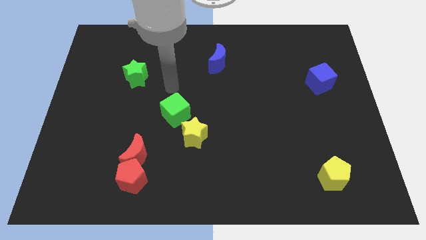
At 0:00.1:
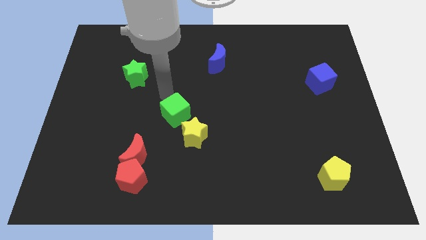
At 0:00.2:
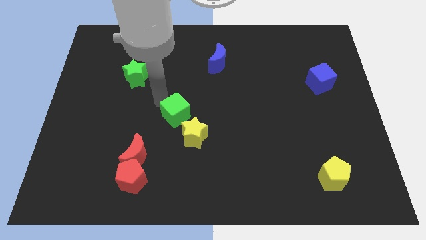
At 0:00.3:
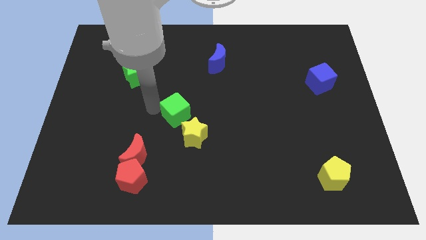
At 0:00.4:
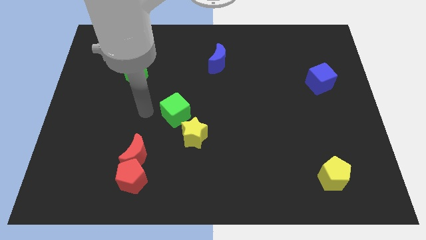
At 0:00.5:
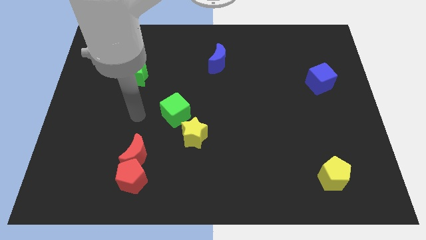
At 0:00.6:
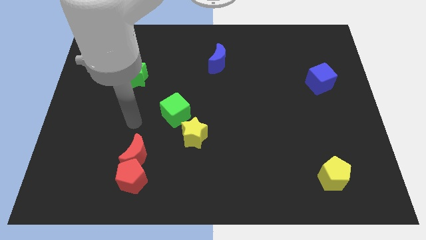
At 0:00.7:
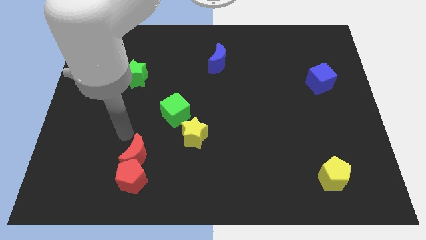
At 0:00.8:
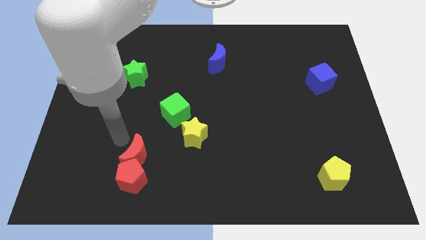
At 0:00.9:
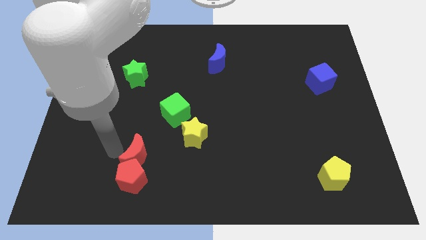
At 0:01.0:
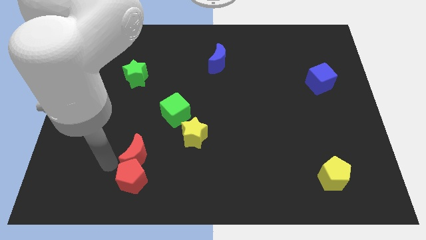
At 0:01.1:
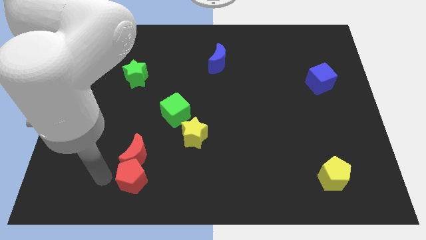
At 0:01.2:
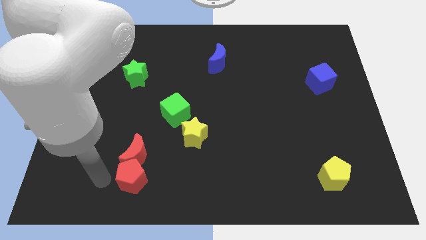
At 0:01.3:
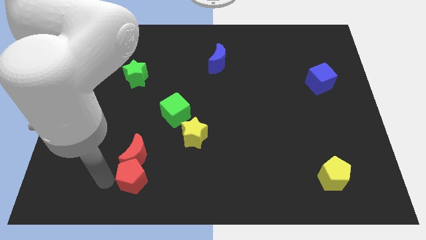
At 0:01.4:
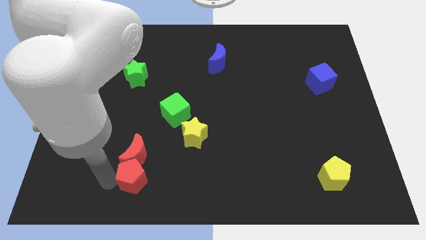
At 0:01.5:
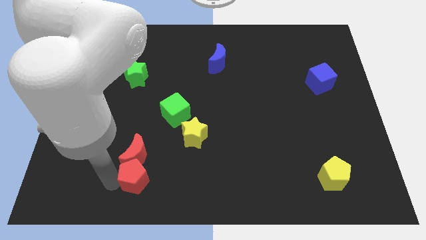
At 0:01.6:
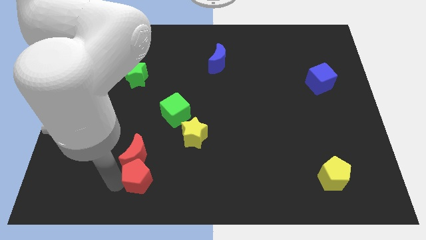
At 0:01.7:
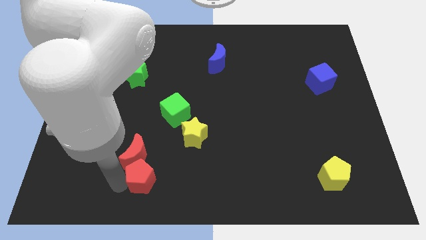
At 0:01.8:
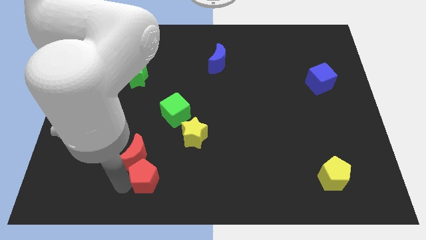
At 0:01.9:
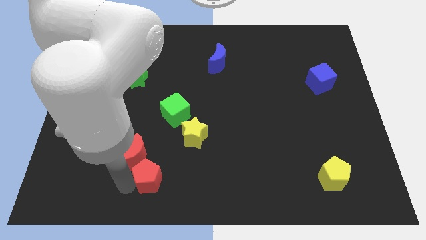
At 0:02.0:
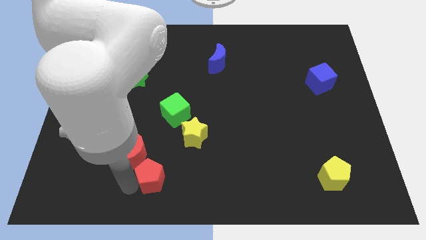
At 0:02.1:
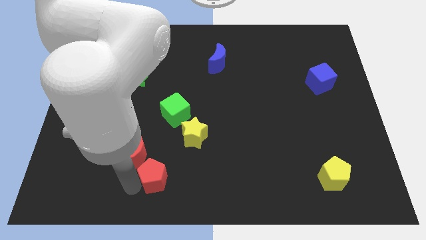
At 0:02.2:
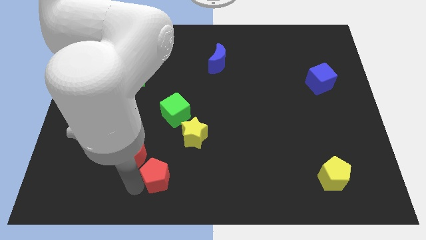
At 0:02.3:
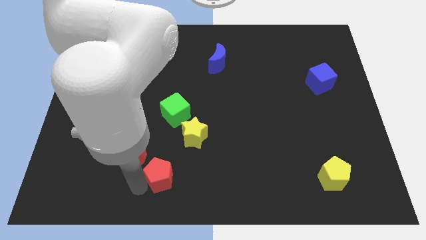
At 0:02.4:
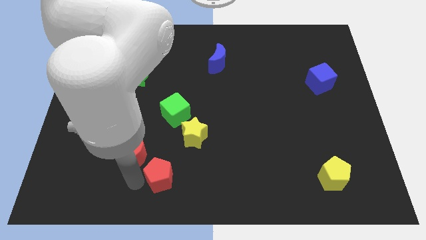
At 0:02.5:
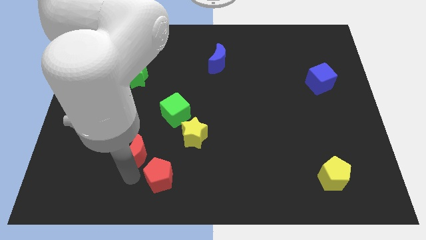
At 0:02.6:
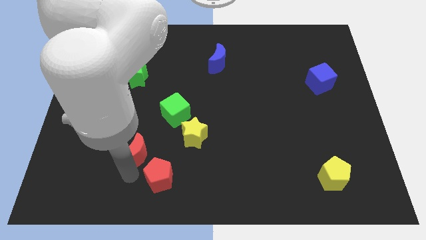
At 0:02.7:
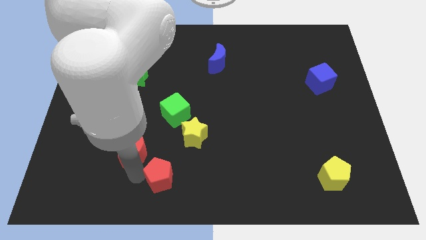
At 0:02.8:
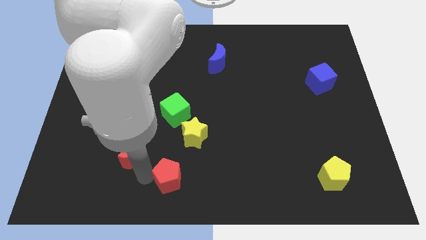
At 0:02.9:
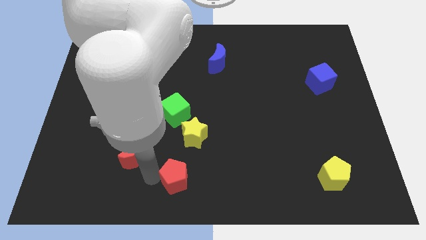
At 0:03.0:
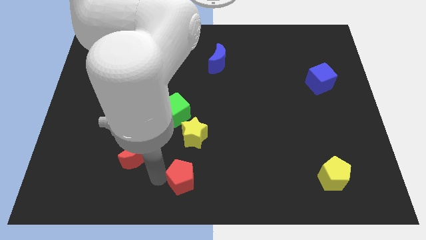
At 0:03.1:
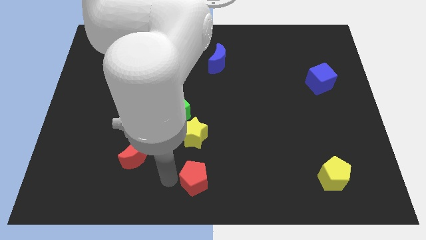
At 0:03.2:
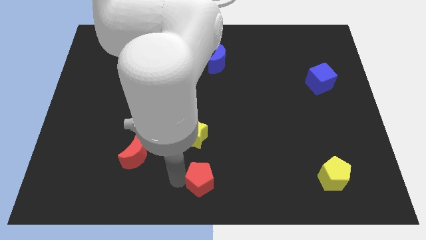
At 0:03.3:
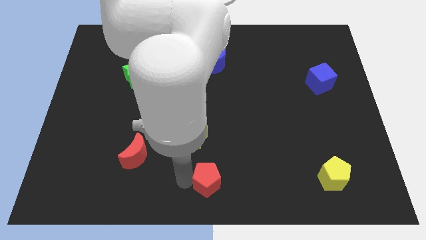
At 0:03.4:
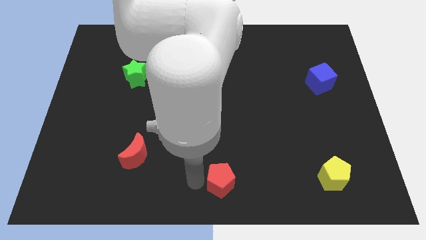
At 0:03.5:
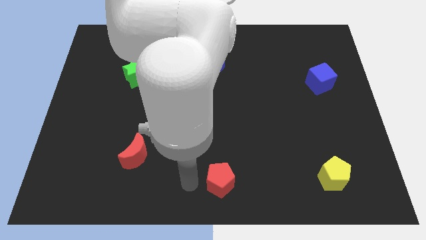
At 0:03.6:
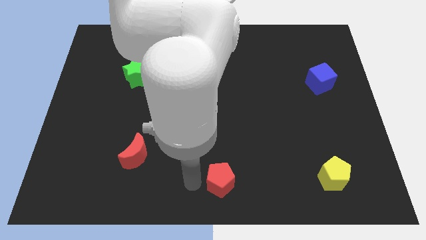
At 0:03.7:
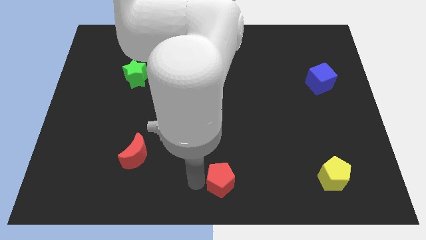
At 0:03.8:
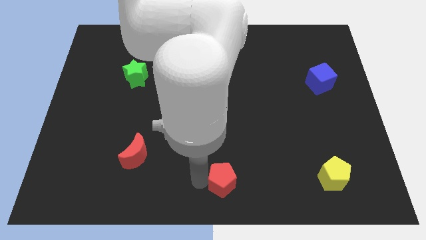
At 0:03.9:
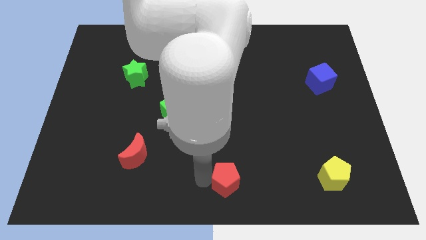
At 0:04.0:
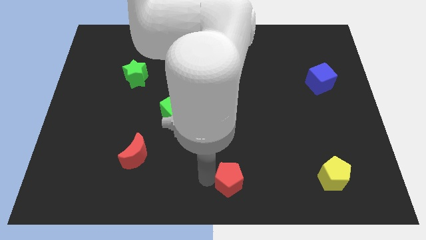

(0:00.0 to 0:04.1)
push the red pentagon to the right

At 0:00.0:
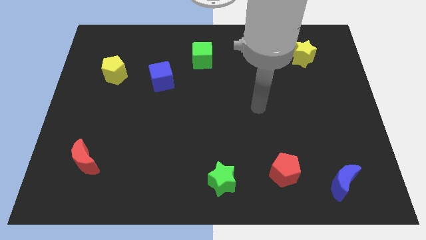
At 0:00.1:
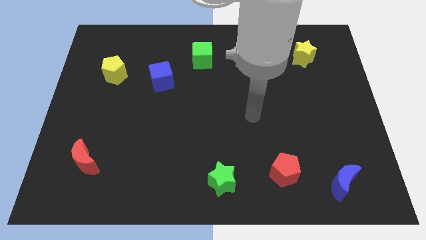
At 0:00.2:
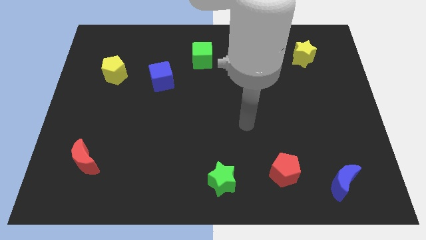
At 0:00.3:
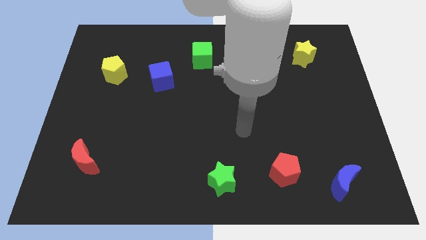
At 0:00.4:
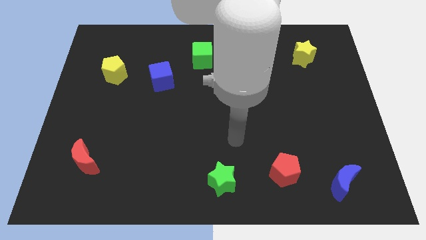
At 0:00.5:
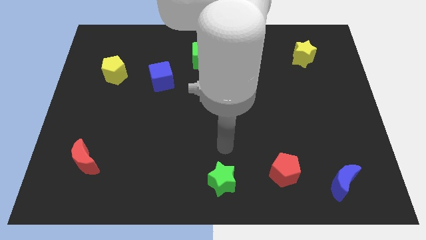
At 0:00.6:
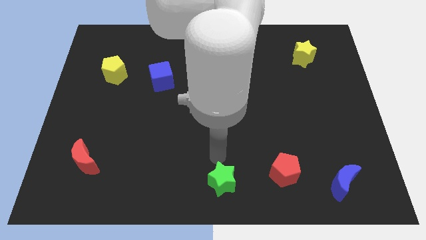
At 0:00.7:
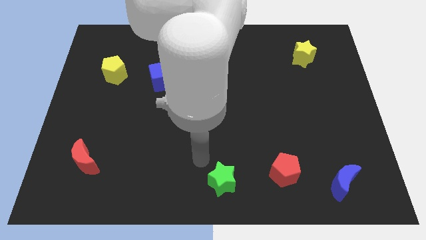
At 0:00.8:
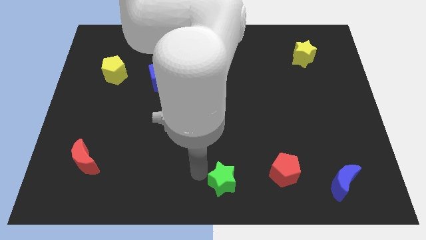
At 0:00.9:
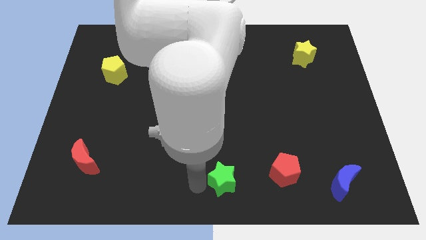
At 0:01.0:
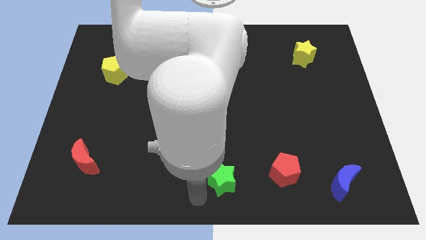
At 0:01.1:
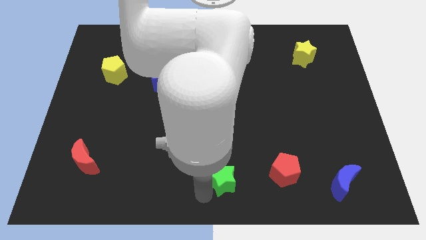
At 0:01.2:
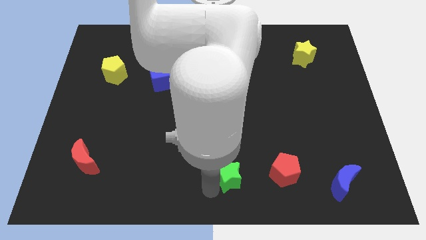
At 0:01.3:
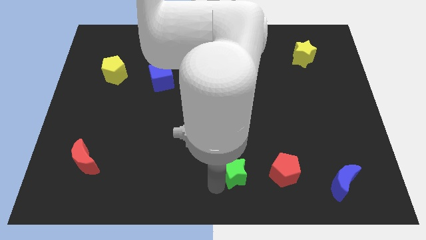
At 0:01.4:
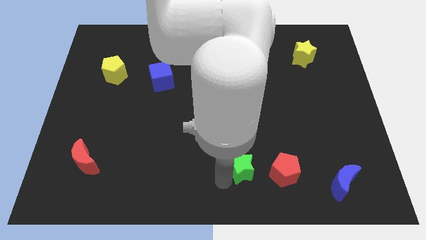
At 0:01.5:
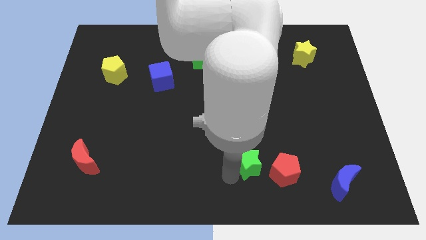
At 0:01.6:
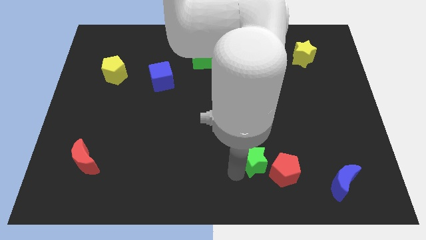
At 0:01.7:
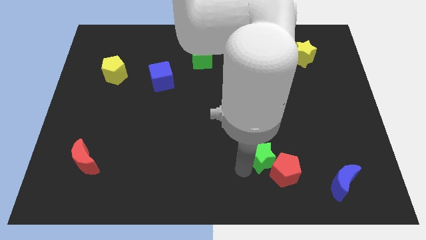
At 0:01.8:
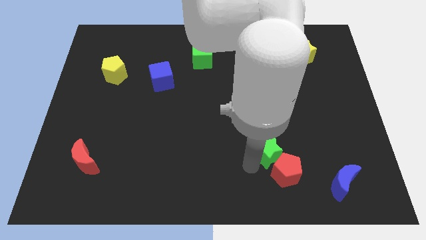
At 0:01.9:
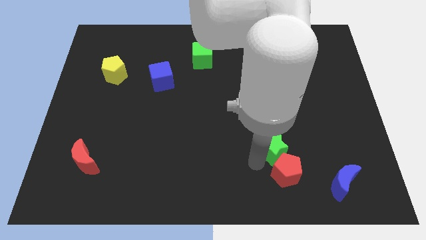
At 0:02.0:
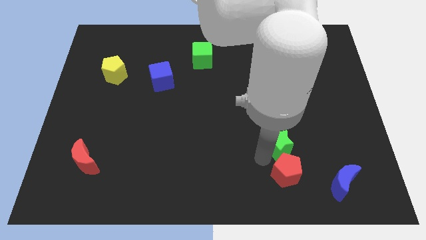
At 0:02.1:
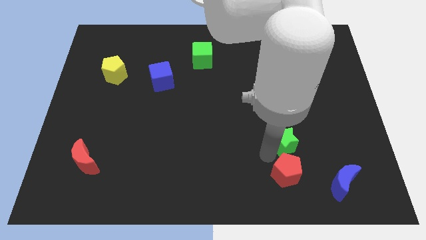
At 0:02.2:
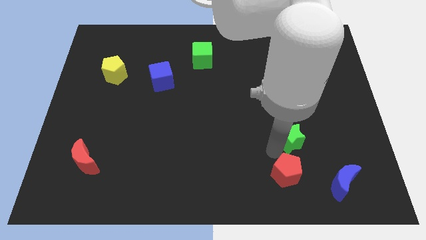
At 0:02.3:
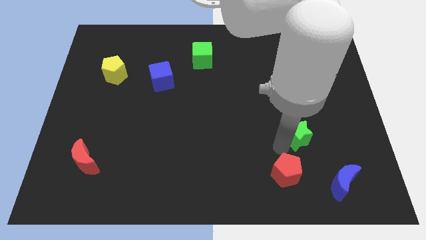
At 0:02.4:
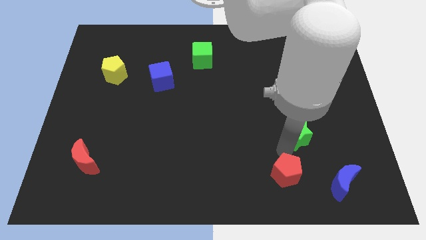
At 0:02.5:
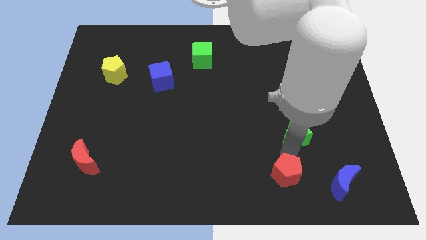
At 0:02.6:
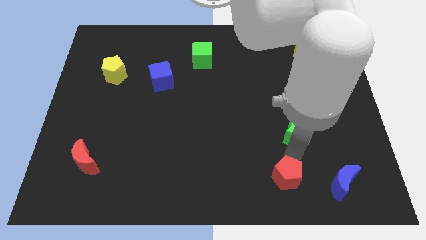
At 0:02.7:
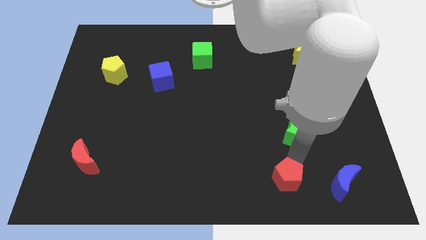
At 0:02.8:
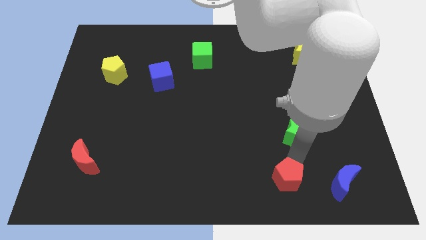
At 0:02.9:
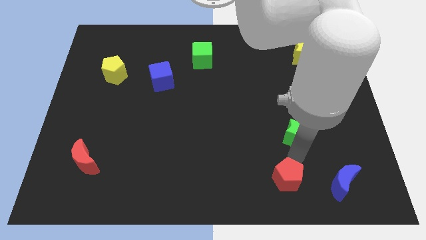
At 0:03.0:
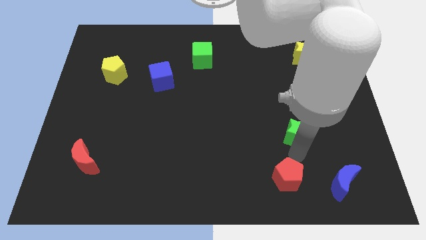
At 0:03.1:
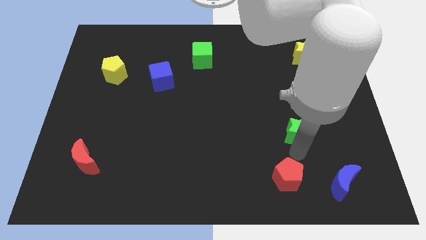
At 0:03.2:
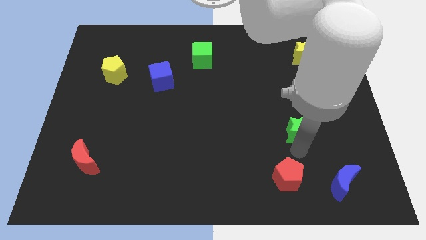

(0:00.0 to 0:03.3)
push the green star up and right

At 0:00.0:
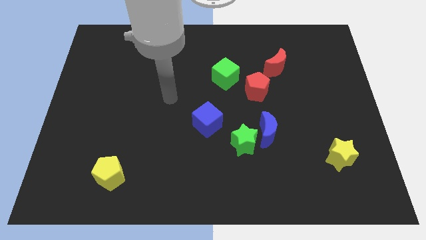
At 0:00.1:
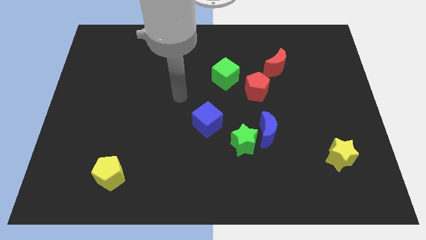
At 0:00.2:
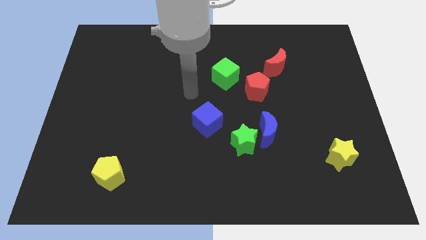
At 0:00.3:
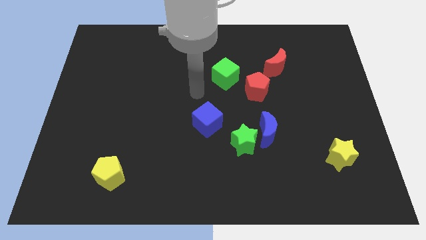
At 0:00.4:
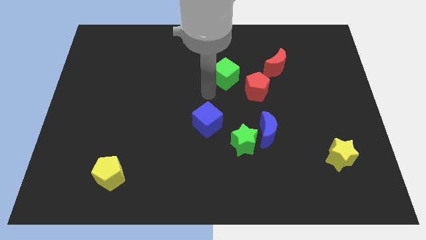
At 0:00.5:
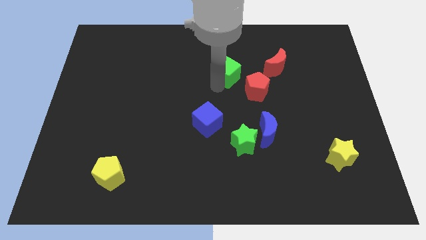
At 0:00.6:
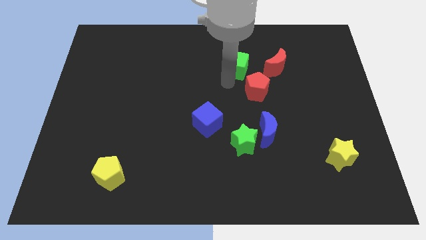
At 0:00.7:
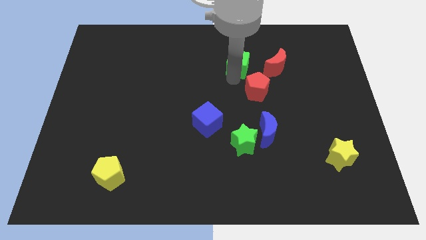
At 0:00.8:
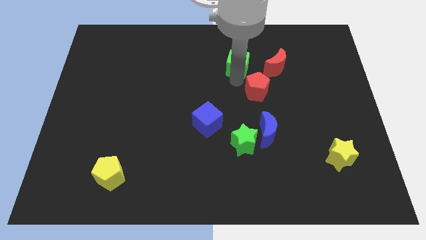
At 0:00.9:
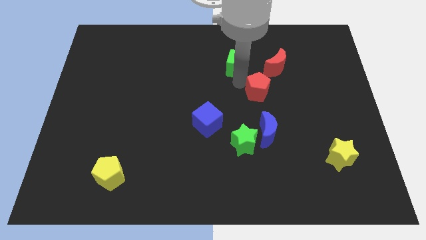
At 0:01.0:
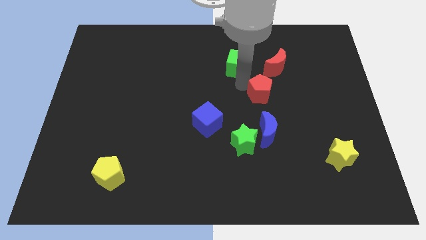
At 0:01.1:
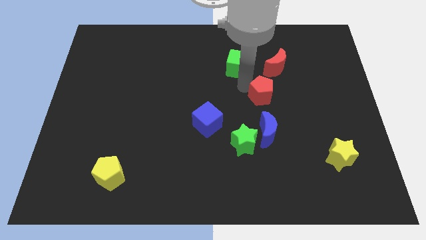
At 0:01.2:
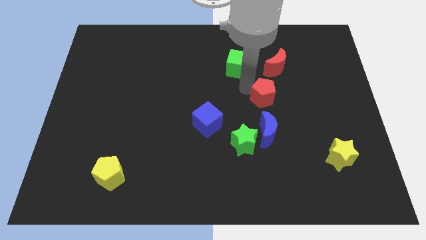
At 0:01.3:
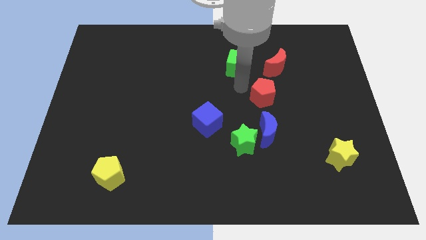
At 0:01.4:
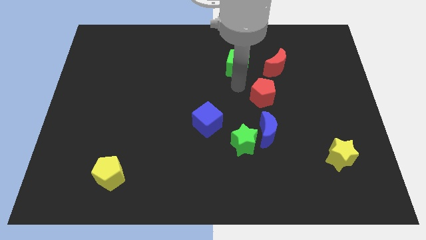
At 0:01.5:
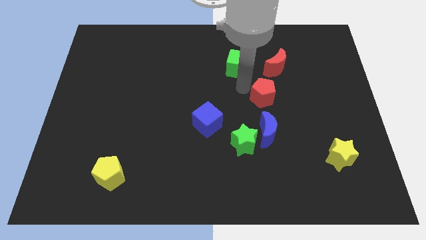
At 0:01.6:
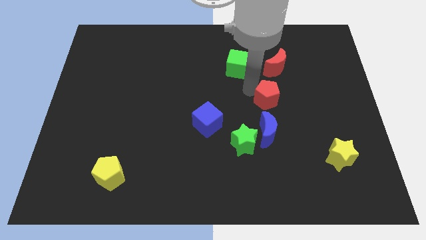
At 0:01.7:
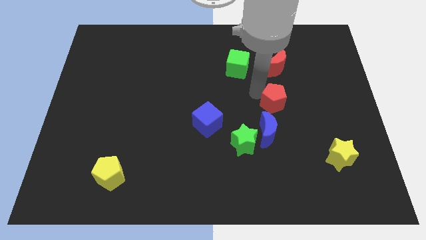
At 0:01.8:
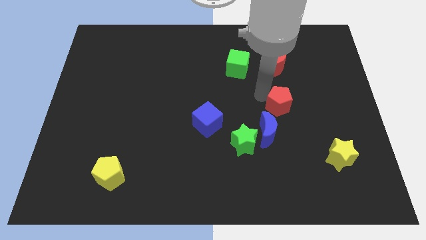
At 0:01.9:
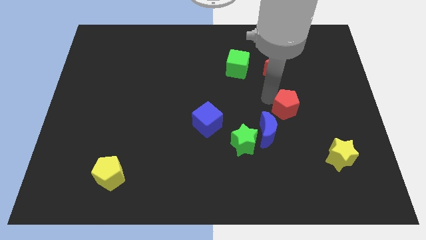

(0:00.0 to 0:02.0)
slightly move the red pentagon downwards and to the right diagonally
